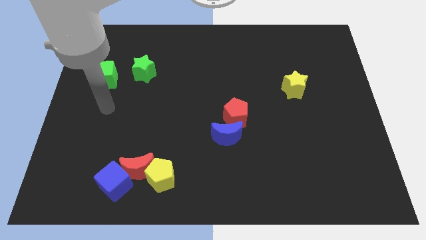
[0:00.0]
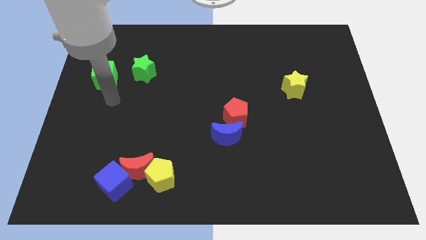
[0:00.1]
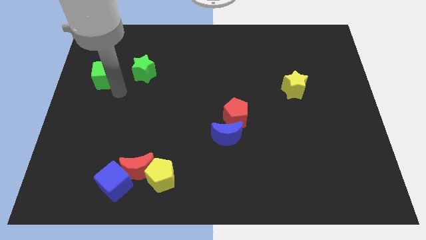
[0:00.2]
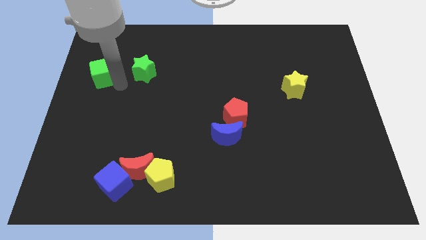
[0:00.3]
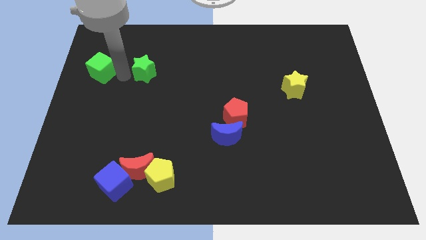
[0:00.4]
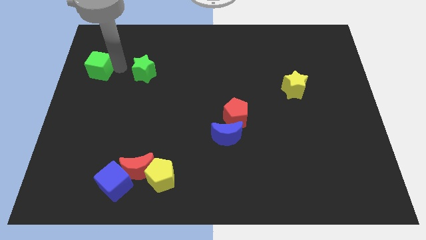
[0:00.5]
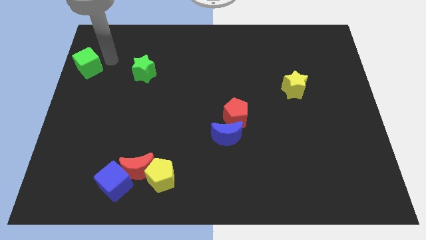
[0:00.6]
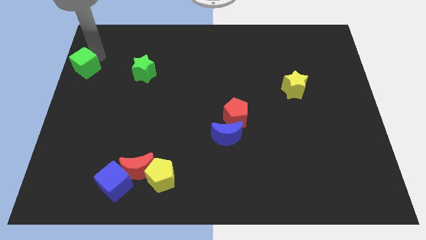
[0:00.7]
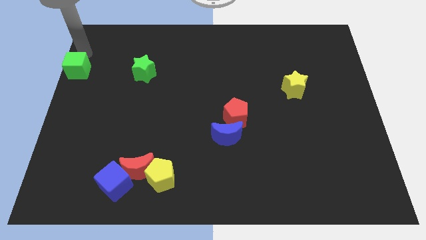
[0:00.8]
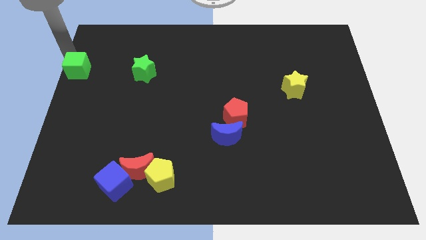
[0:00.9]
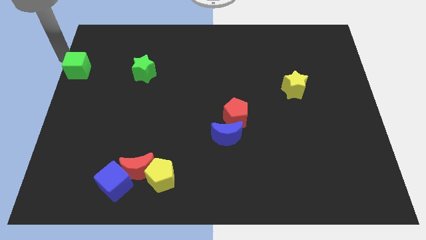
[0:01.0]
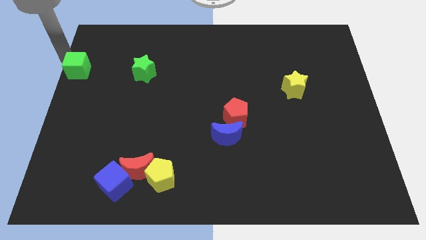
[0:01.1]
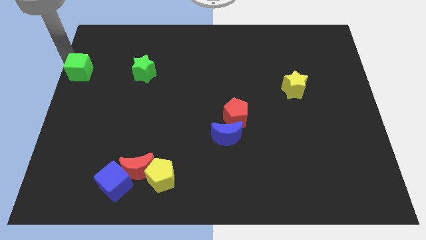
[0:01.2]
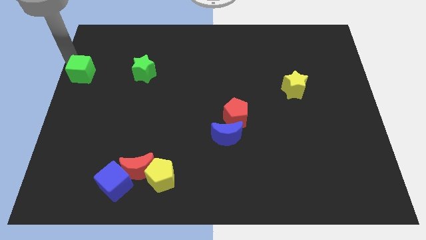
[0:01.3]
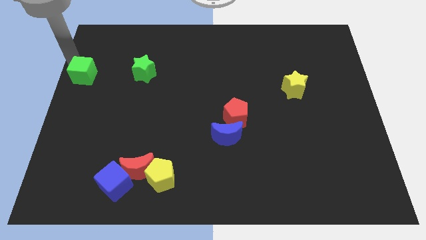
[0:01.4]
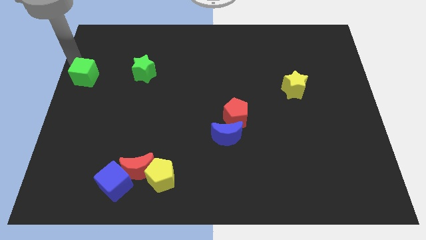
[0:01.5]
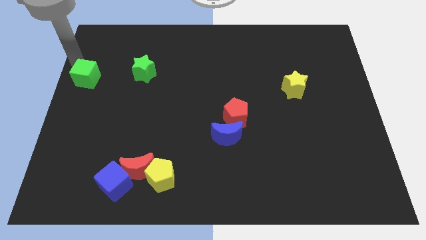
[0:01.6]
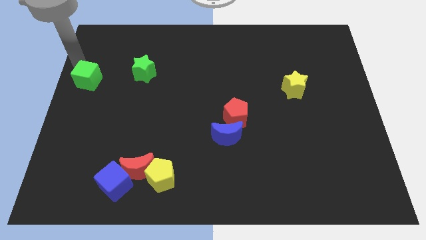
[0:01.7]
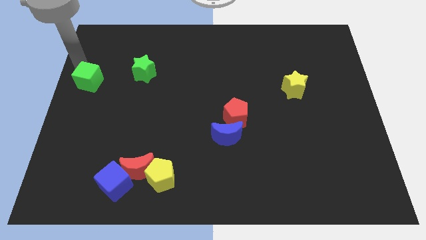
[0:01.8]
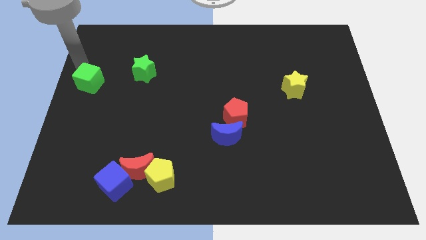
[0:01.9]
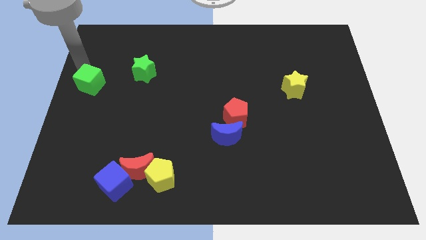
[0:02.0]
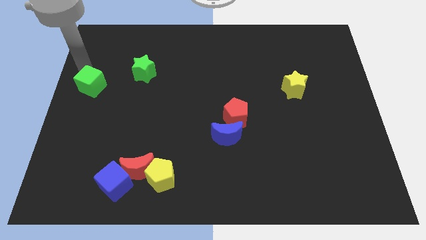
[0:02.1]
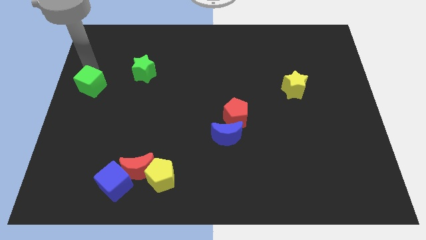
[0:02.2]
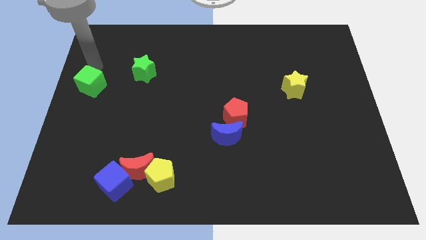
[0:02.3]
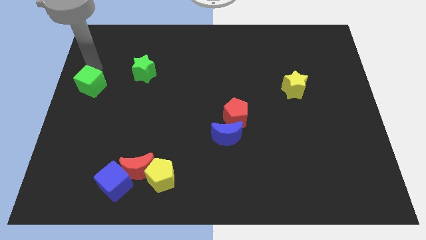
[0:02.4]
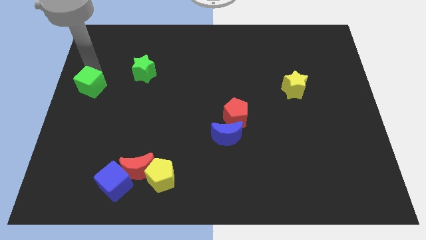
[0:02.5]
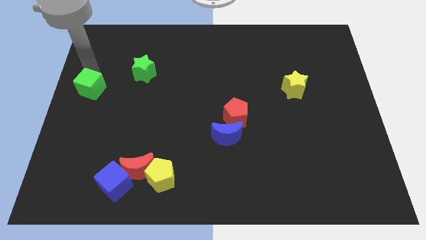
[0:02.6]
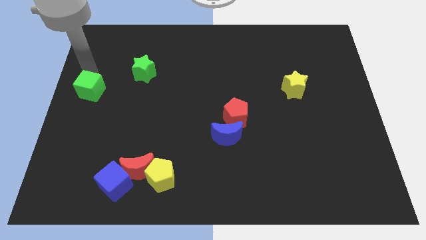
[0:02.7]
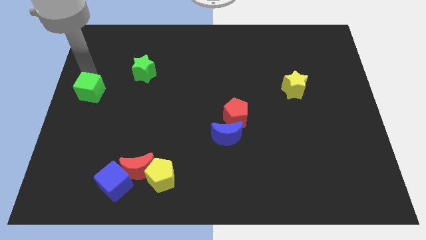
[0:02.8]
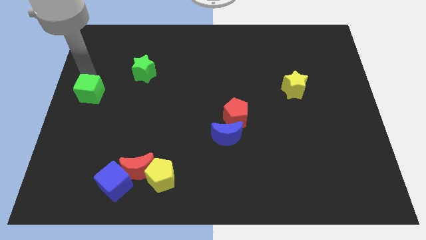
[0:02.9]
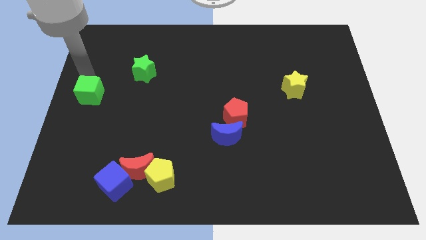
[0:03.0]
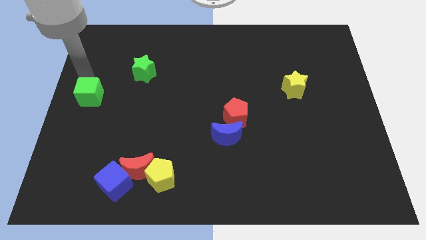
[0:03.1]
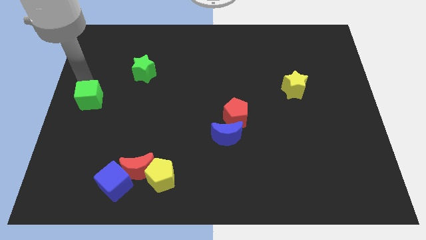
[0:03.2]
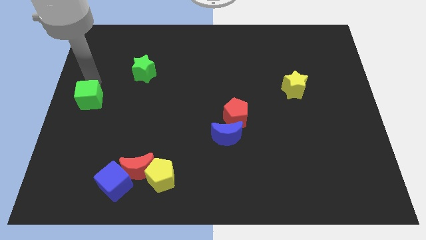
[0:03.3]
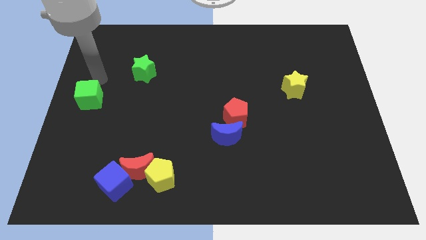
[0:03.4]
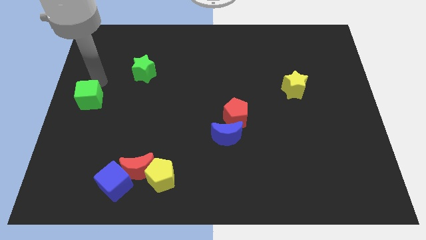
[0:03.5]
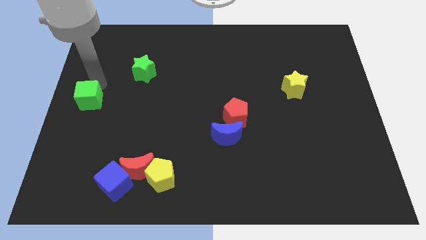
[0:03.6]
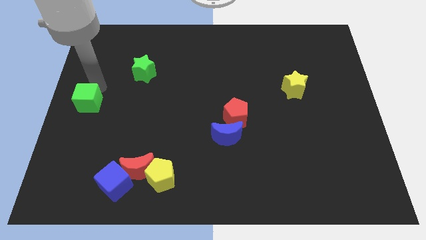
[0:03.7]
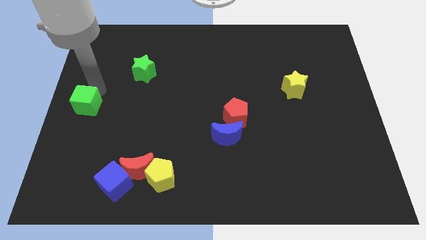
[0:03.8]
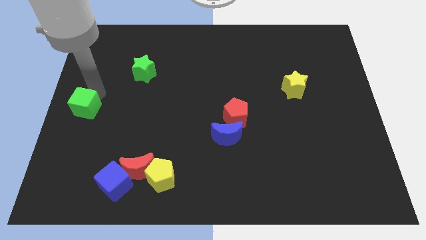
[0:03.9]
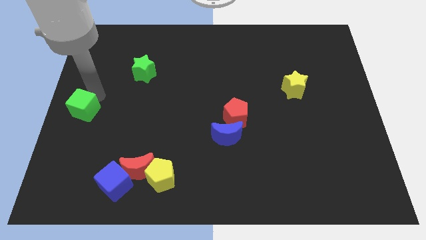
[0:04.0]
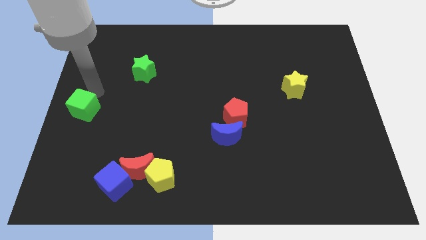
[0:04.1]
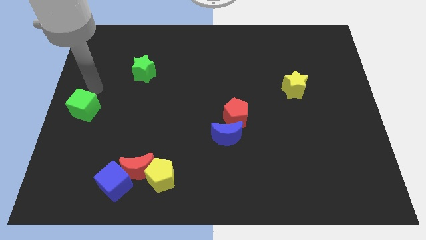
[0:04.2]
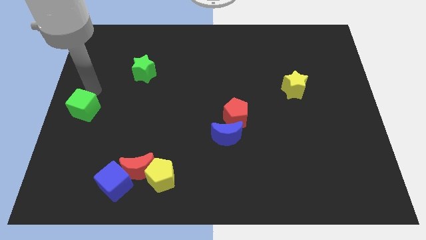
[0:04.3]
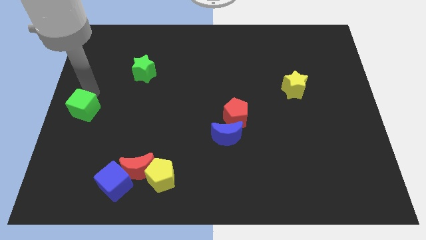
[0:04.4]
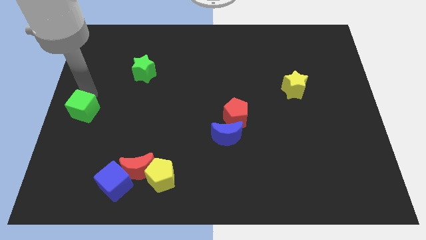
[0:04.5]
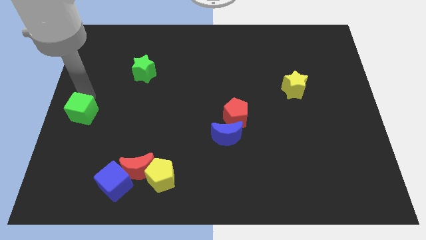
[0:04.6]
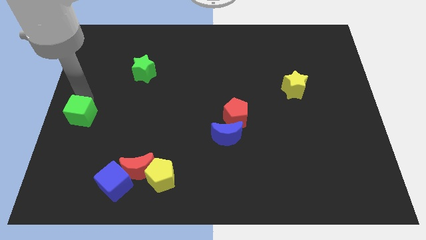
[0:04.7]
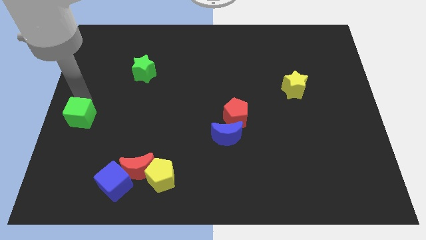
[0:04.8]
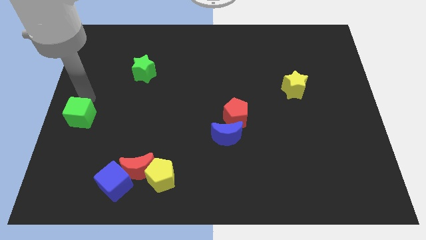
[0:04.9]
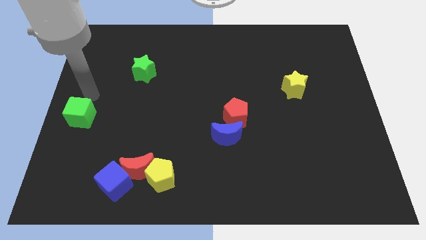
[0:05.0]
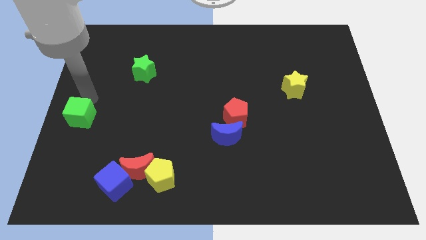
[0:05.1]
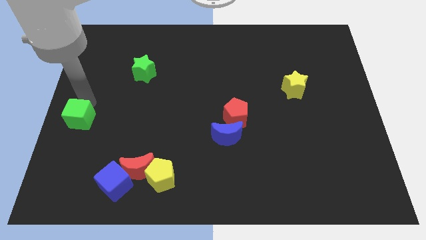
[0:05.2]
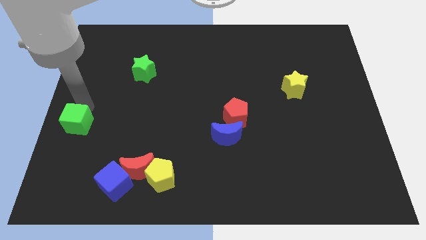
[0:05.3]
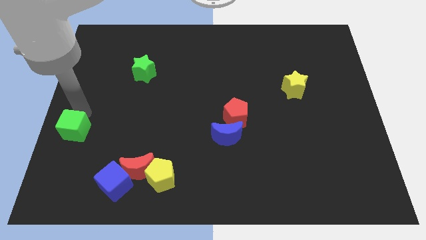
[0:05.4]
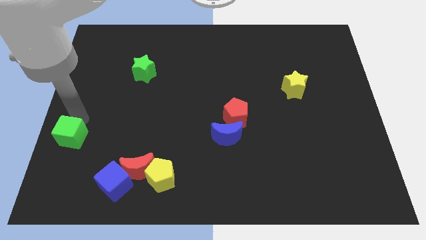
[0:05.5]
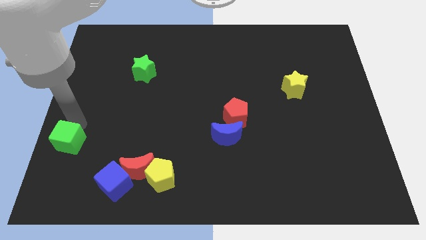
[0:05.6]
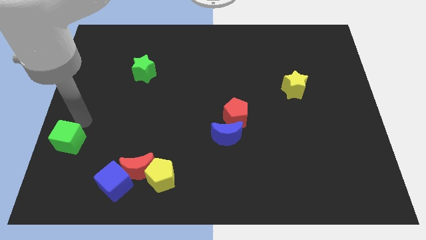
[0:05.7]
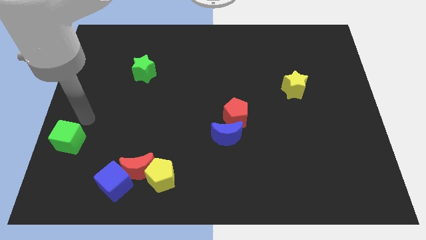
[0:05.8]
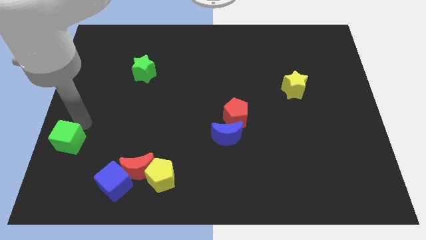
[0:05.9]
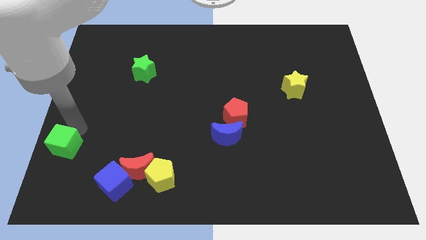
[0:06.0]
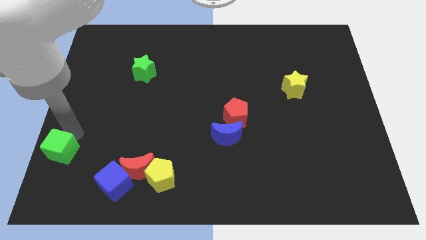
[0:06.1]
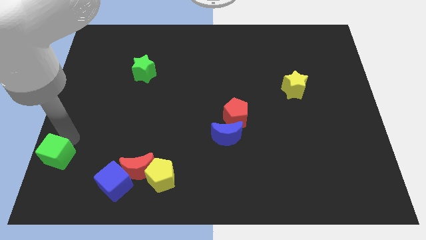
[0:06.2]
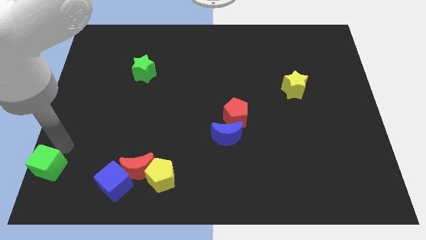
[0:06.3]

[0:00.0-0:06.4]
move the green cube to the bottom left
